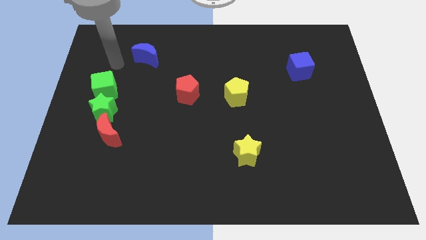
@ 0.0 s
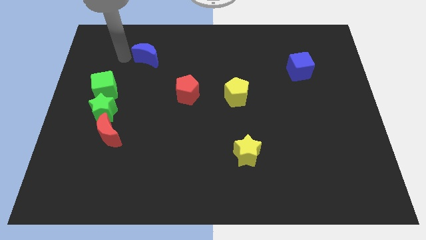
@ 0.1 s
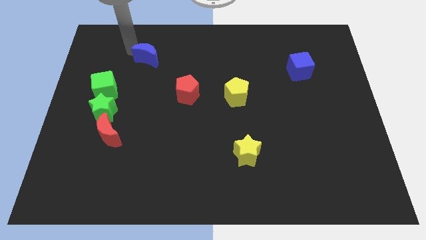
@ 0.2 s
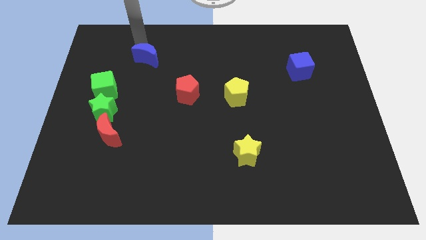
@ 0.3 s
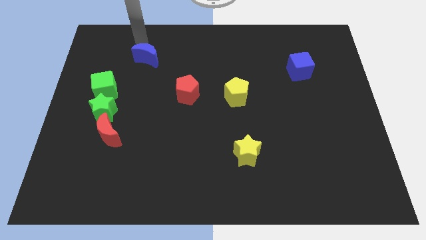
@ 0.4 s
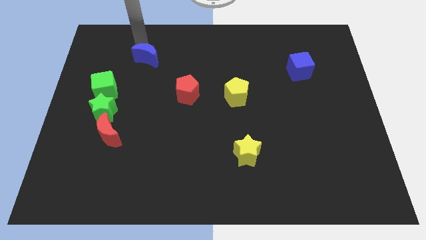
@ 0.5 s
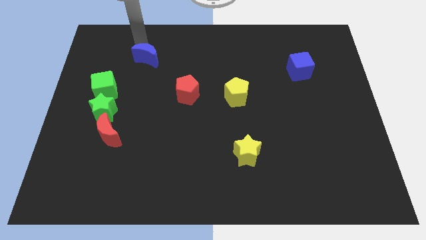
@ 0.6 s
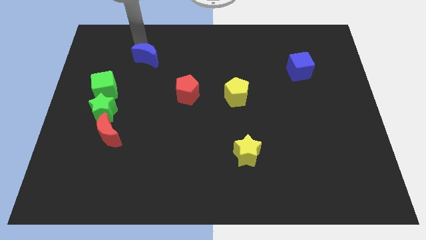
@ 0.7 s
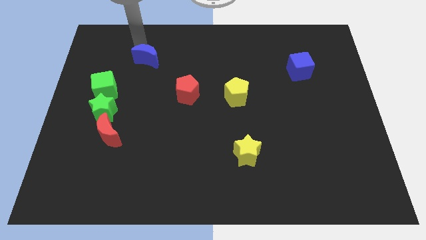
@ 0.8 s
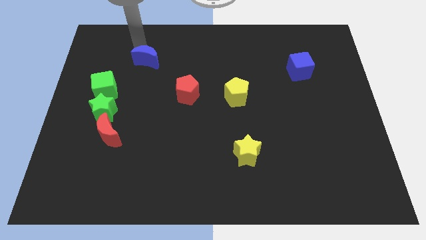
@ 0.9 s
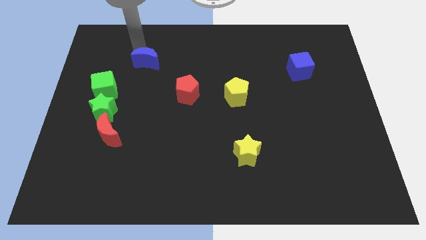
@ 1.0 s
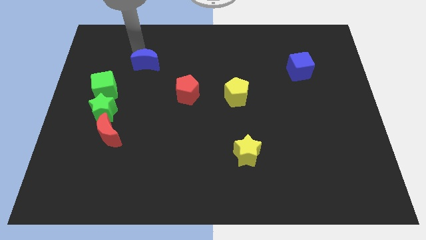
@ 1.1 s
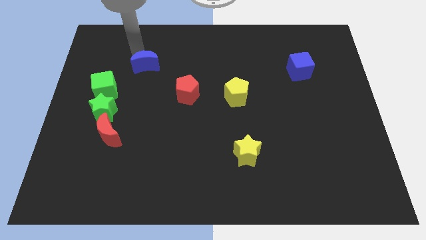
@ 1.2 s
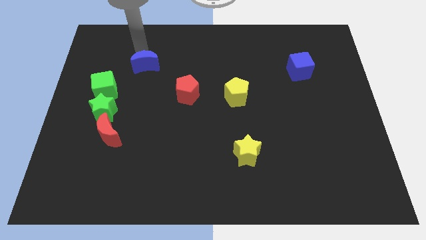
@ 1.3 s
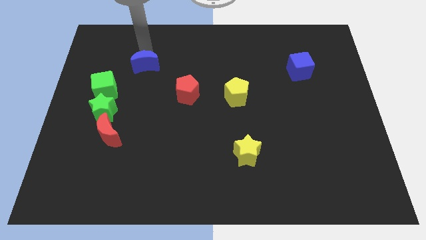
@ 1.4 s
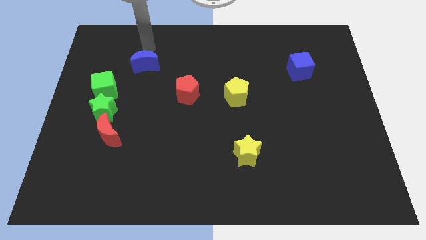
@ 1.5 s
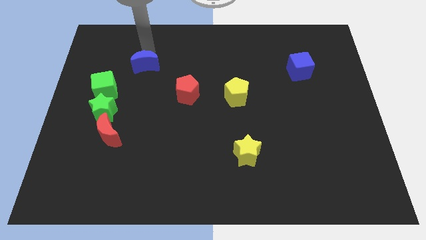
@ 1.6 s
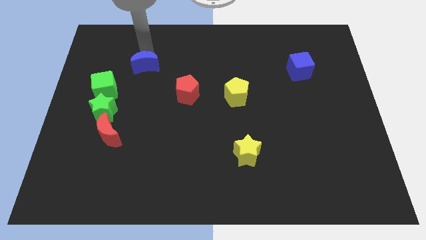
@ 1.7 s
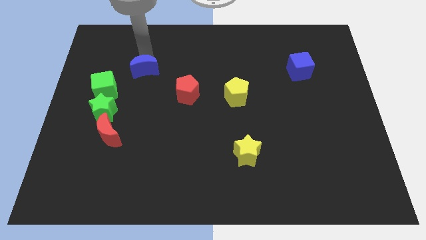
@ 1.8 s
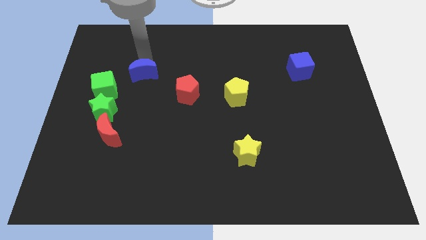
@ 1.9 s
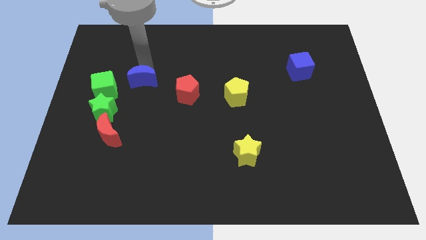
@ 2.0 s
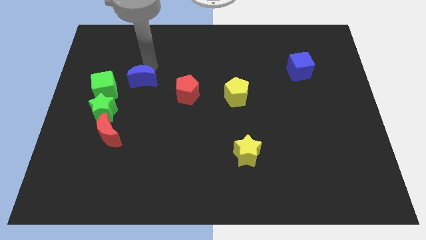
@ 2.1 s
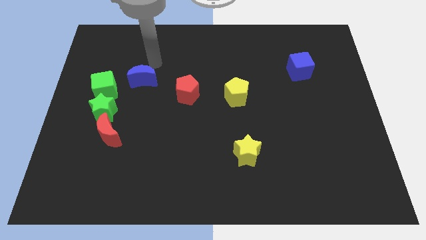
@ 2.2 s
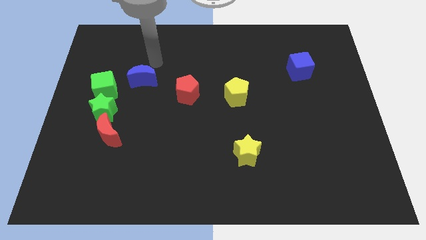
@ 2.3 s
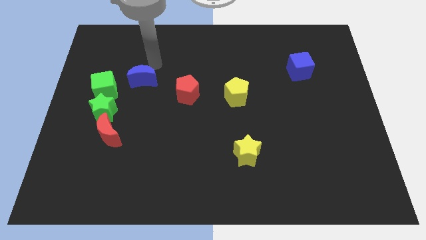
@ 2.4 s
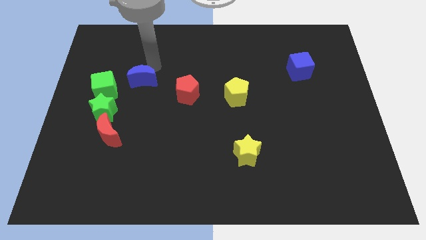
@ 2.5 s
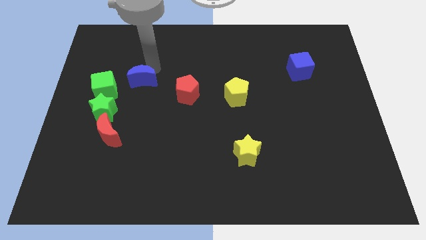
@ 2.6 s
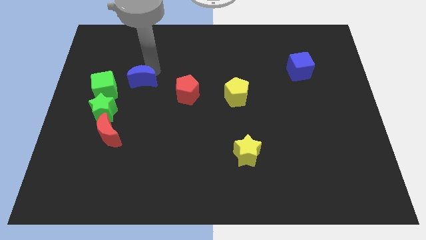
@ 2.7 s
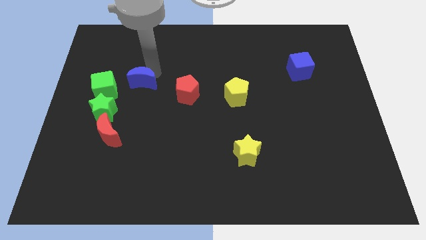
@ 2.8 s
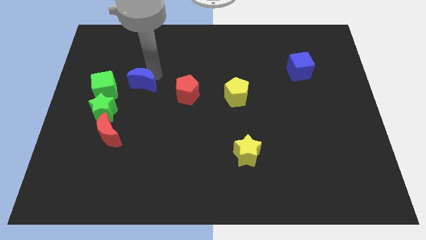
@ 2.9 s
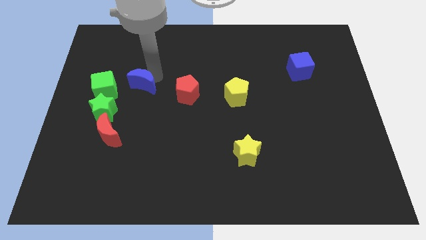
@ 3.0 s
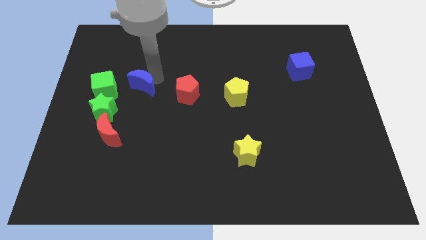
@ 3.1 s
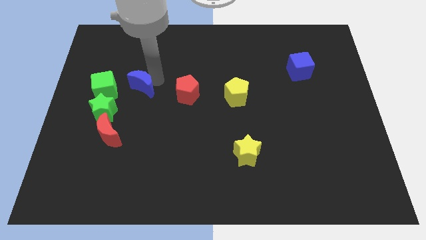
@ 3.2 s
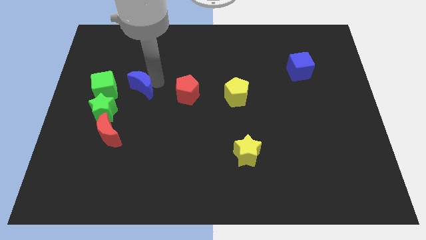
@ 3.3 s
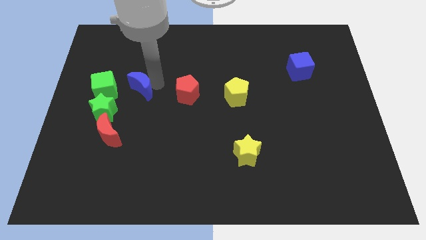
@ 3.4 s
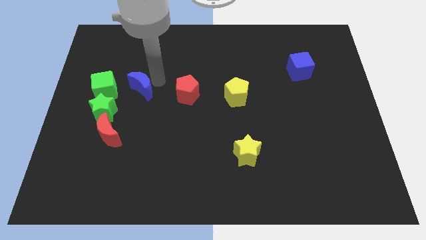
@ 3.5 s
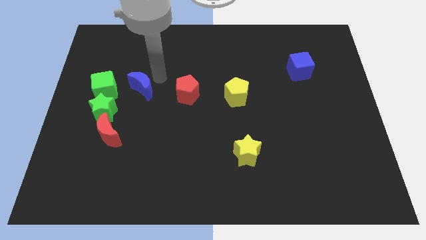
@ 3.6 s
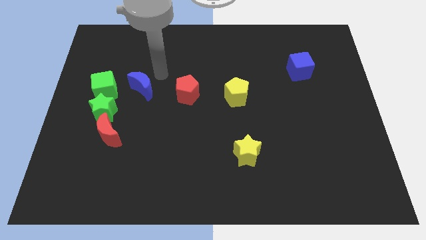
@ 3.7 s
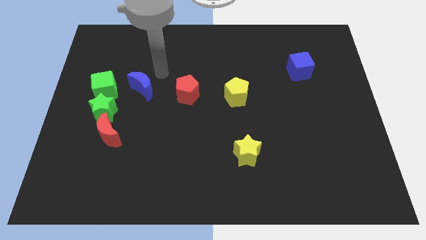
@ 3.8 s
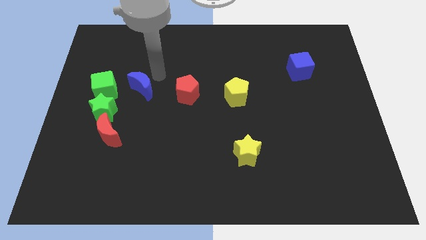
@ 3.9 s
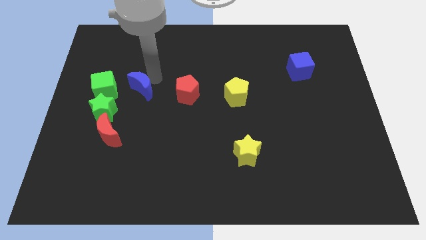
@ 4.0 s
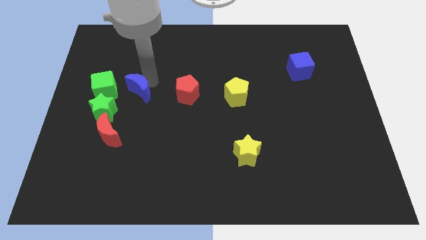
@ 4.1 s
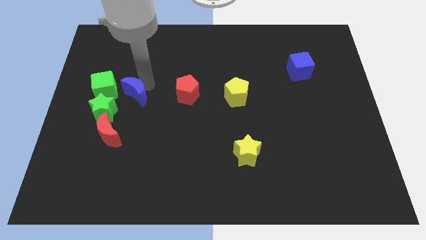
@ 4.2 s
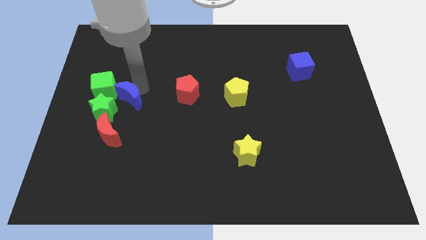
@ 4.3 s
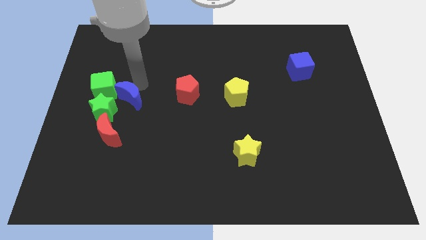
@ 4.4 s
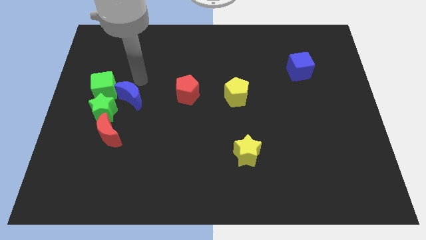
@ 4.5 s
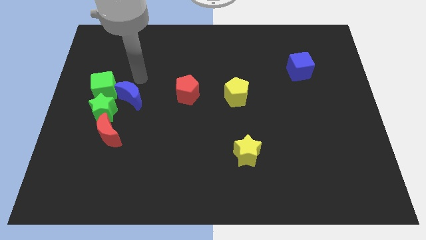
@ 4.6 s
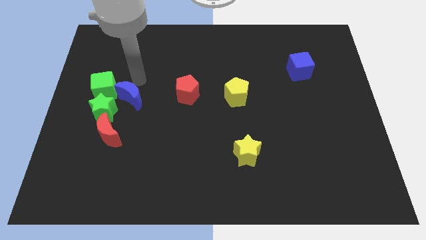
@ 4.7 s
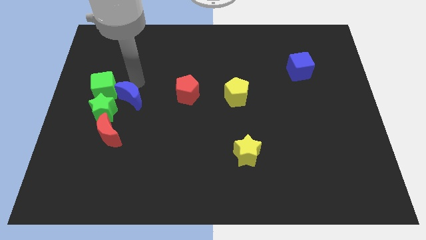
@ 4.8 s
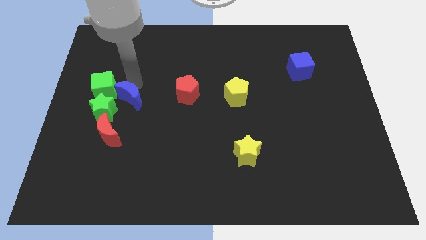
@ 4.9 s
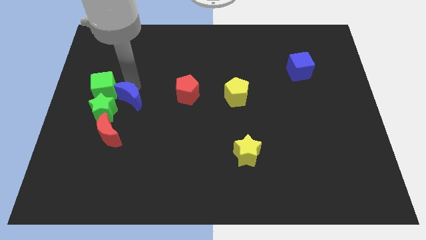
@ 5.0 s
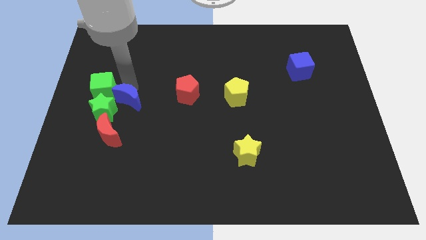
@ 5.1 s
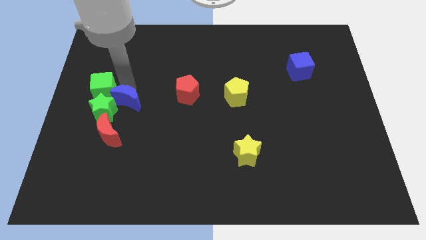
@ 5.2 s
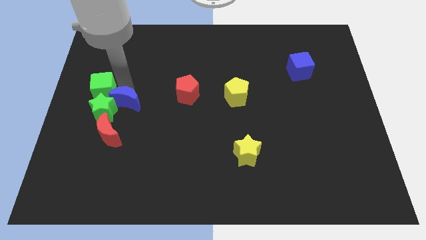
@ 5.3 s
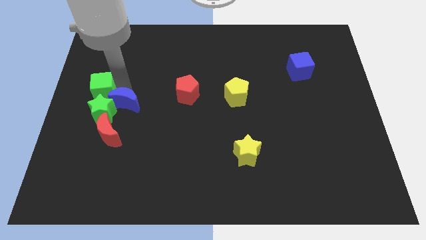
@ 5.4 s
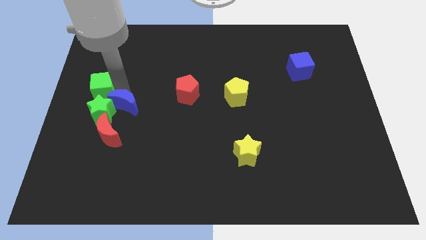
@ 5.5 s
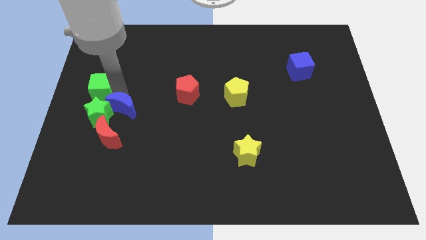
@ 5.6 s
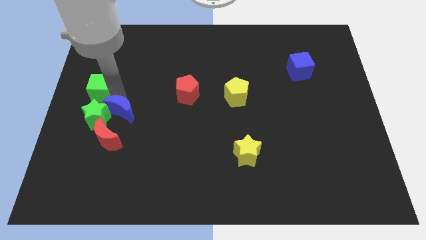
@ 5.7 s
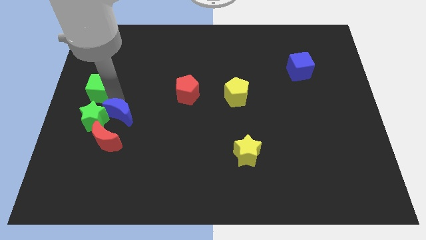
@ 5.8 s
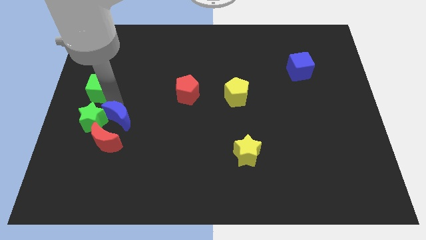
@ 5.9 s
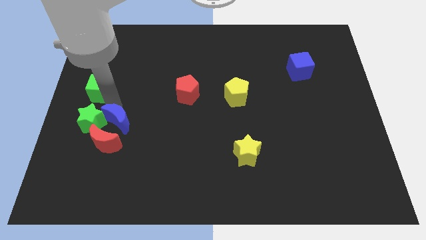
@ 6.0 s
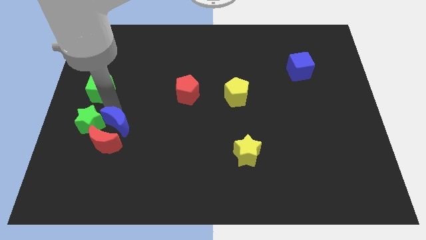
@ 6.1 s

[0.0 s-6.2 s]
slide the blue moon close to the red moon

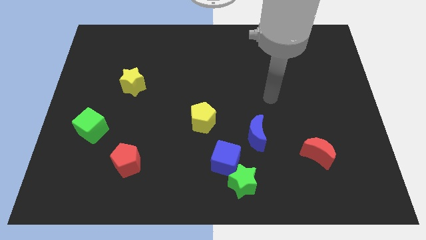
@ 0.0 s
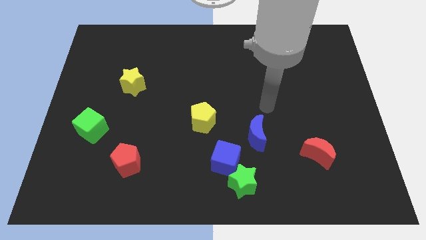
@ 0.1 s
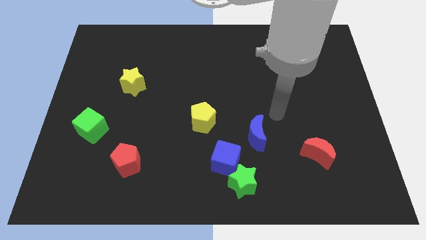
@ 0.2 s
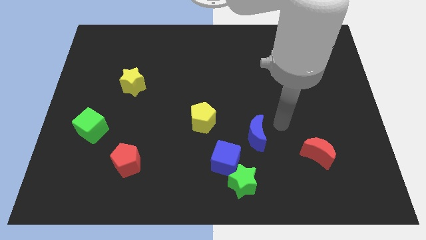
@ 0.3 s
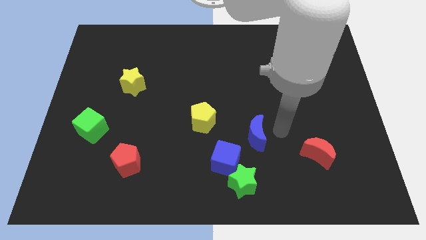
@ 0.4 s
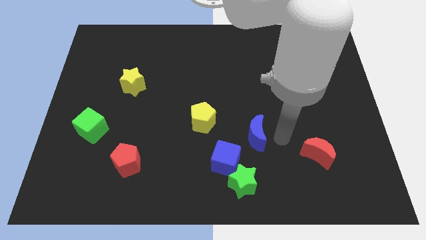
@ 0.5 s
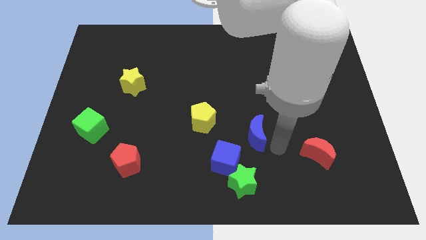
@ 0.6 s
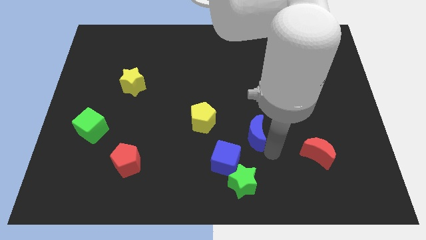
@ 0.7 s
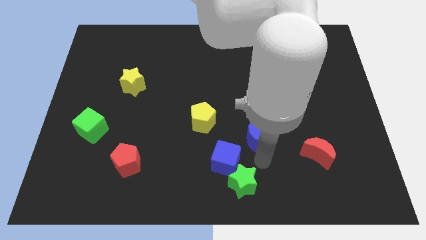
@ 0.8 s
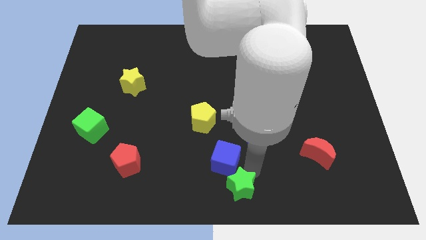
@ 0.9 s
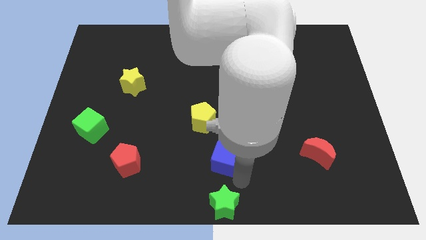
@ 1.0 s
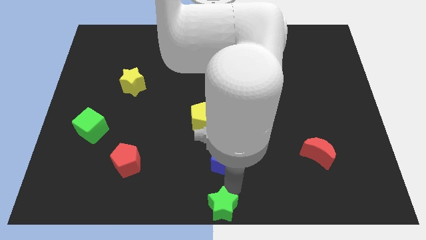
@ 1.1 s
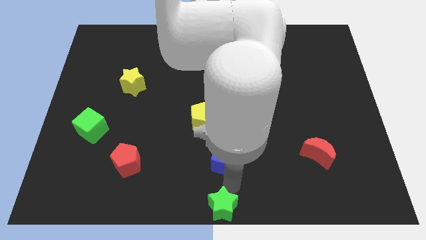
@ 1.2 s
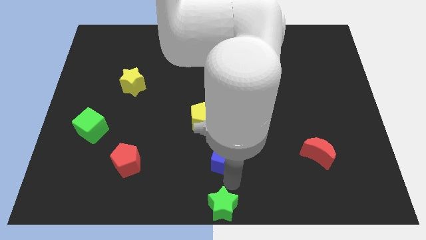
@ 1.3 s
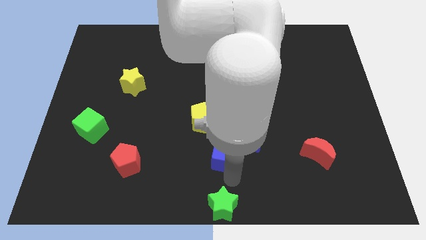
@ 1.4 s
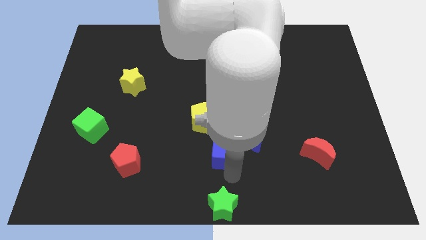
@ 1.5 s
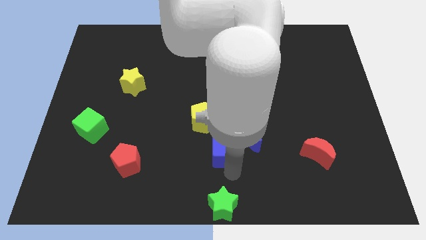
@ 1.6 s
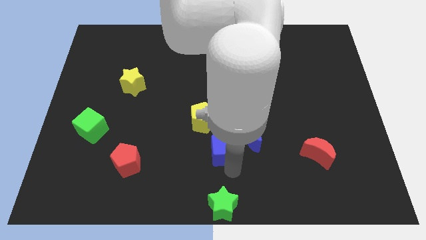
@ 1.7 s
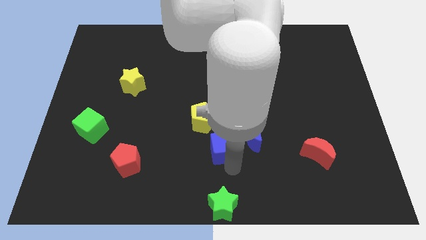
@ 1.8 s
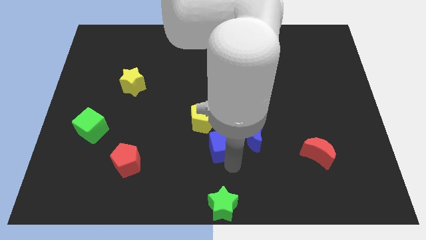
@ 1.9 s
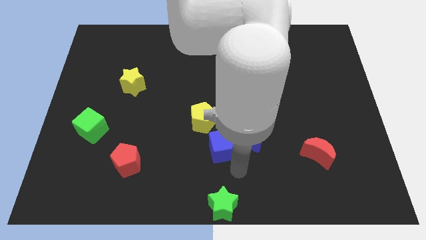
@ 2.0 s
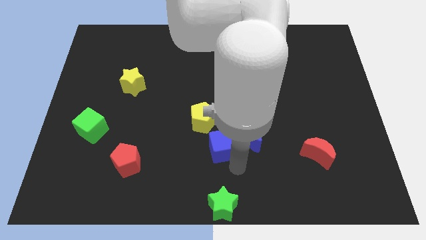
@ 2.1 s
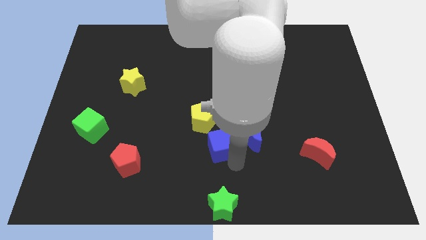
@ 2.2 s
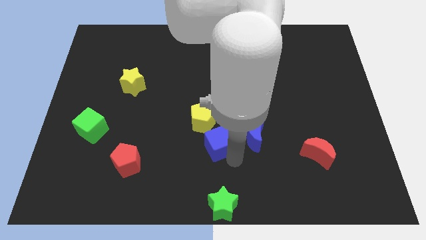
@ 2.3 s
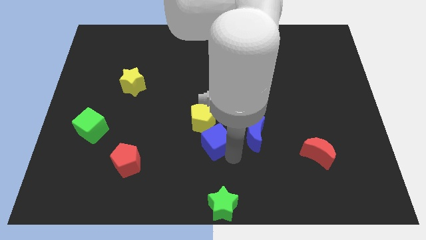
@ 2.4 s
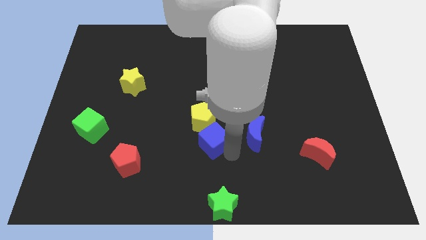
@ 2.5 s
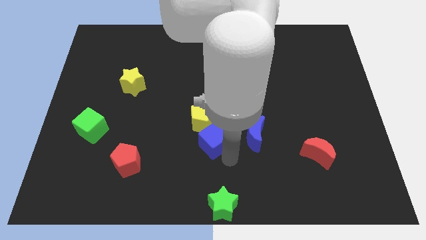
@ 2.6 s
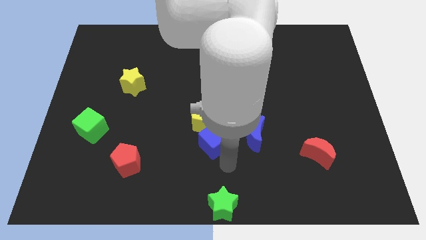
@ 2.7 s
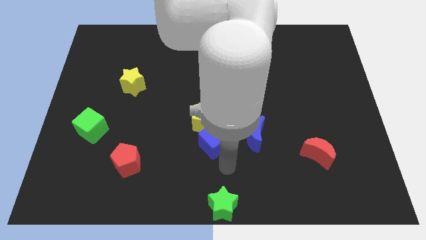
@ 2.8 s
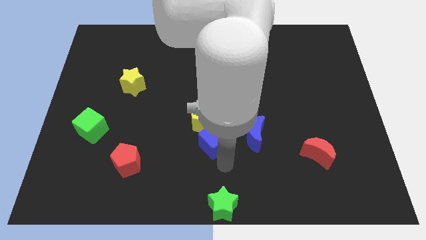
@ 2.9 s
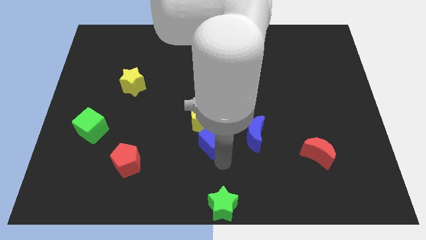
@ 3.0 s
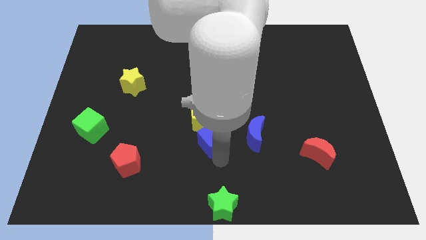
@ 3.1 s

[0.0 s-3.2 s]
slide the blue cube close to the yellow pentagon
